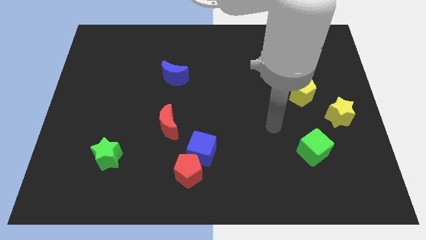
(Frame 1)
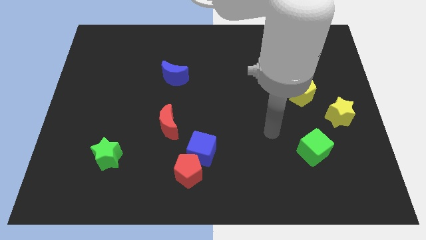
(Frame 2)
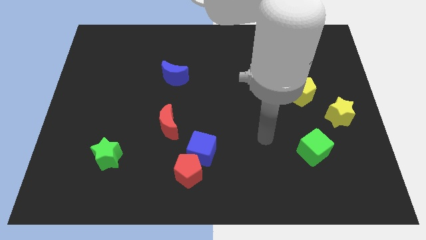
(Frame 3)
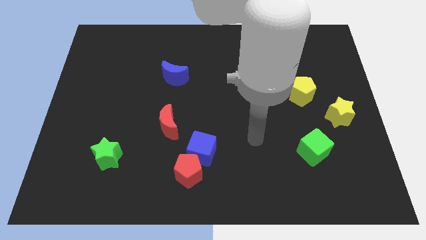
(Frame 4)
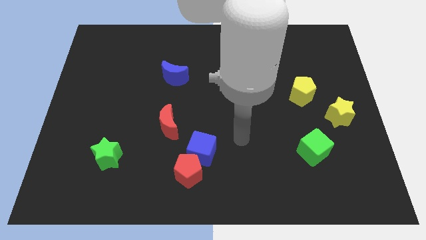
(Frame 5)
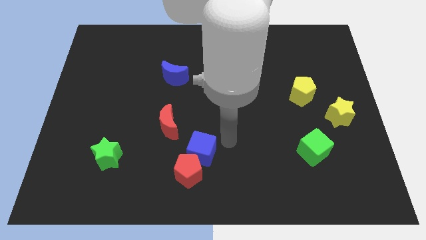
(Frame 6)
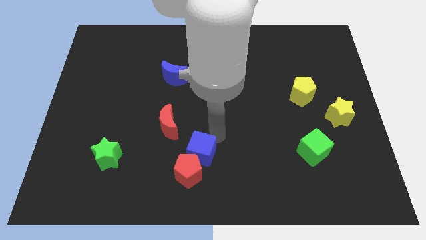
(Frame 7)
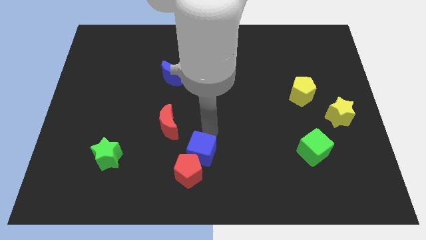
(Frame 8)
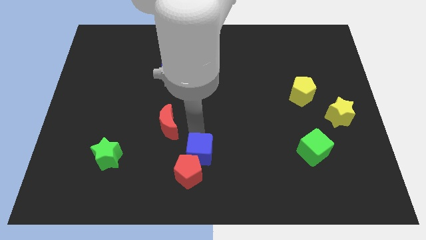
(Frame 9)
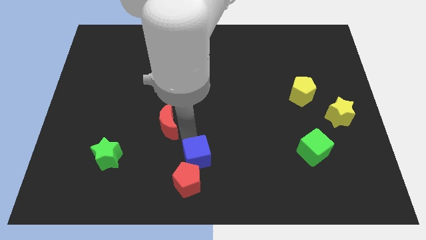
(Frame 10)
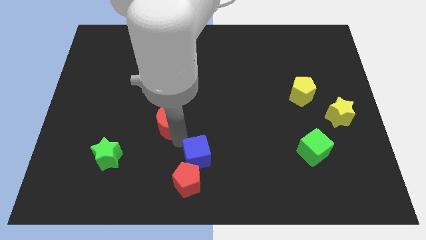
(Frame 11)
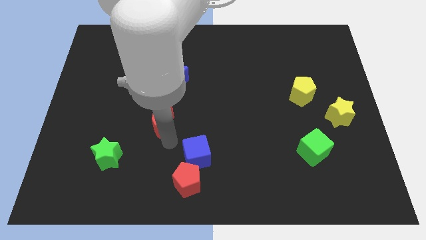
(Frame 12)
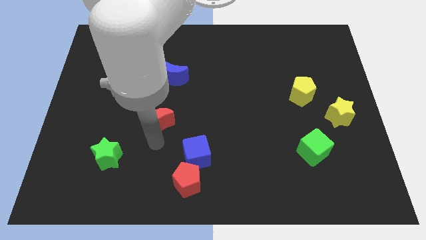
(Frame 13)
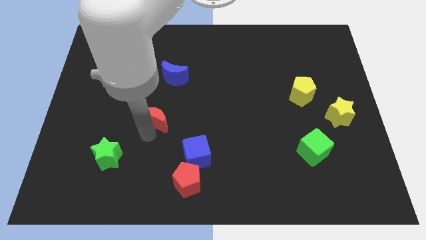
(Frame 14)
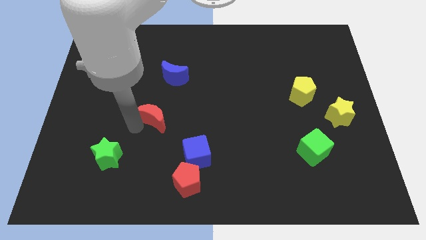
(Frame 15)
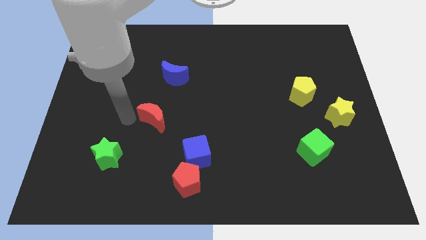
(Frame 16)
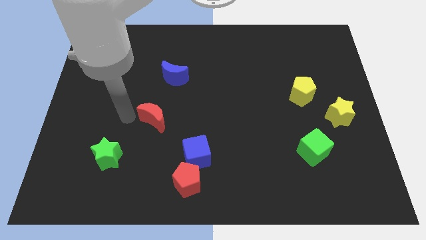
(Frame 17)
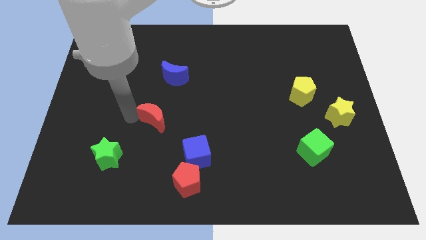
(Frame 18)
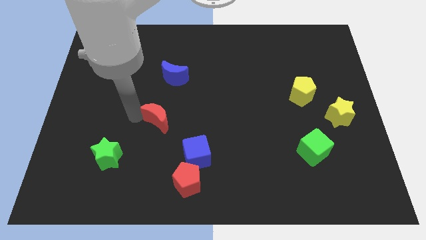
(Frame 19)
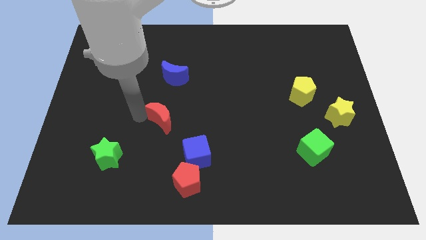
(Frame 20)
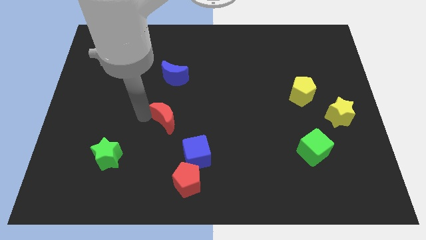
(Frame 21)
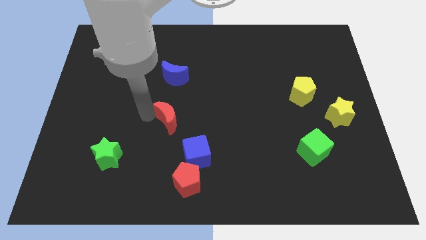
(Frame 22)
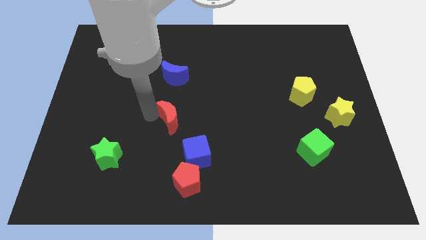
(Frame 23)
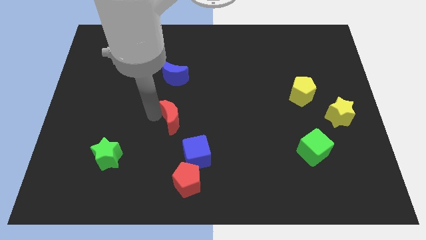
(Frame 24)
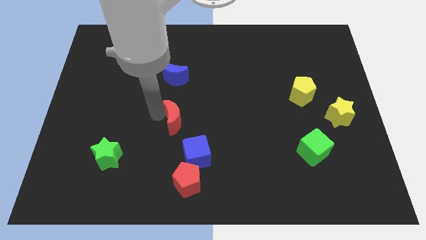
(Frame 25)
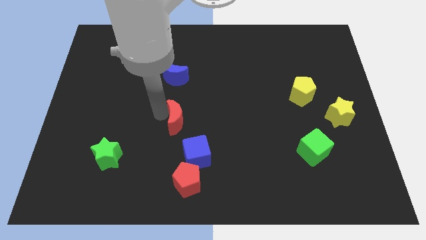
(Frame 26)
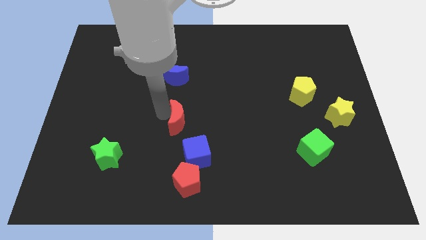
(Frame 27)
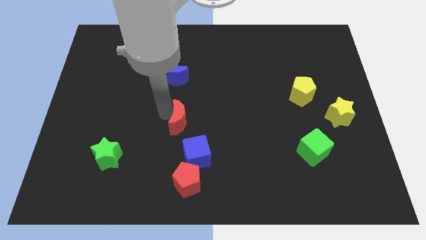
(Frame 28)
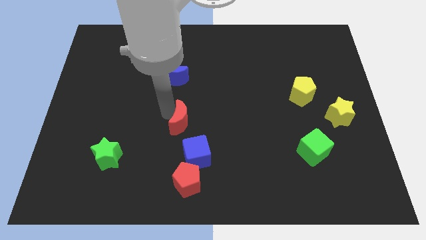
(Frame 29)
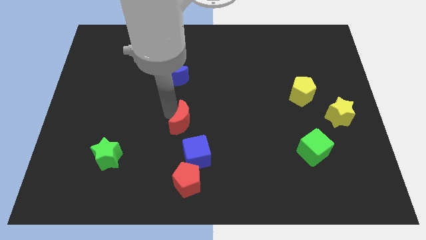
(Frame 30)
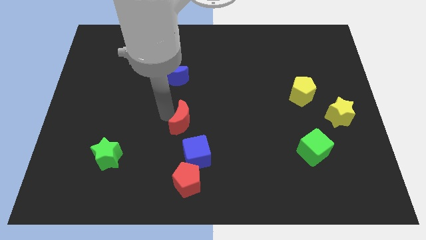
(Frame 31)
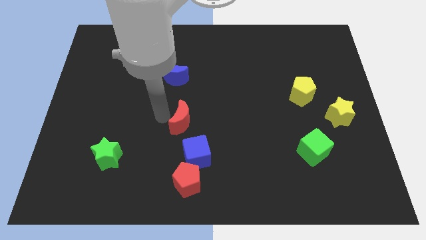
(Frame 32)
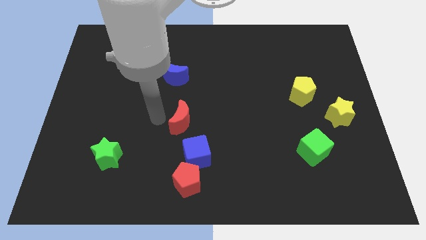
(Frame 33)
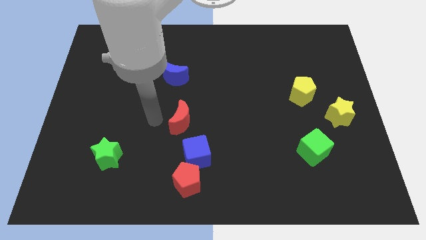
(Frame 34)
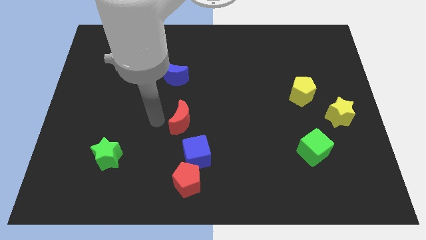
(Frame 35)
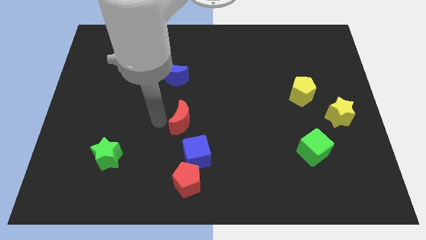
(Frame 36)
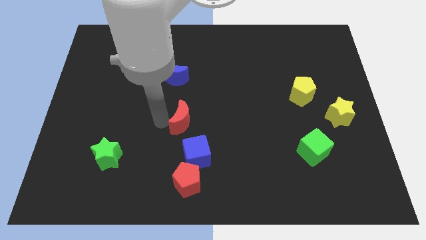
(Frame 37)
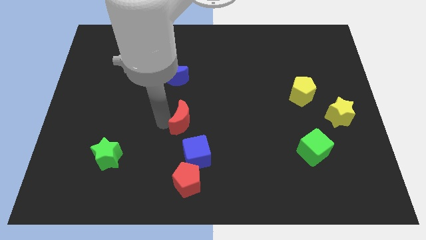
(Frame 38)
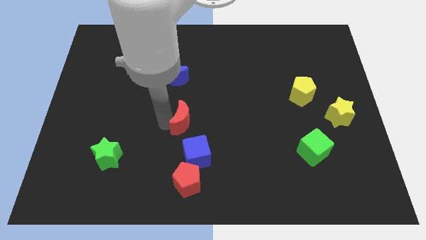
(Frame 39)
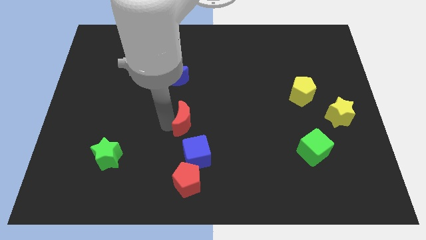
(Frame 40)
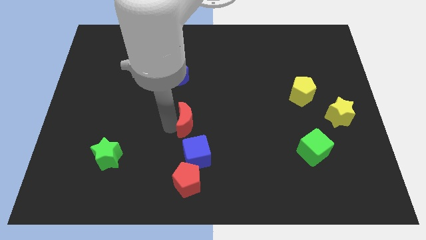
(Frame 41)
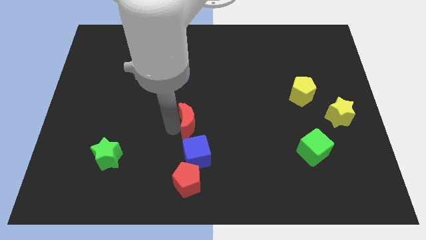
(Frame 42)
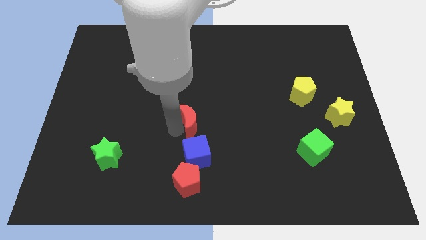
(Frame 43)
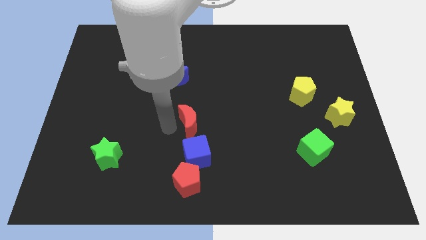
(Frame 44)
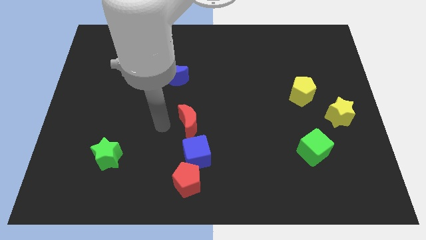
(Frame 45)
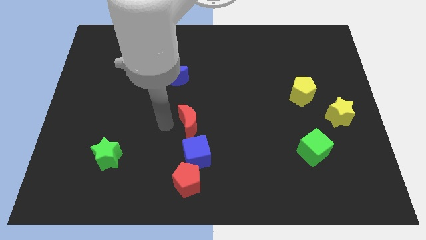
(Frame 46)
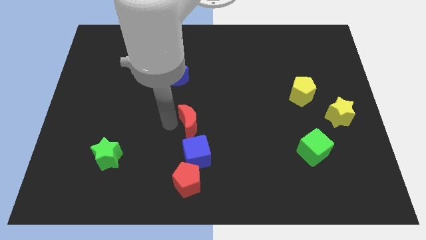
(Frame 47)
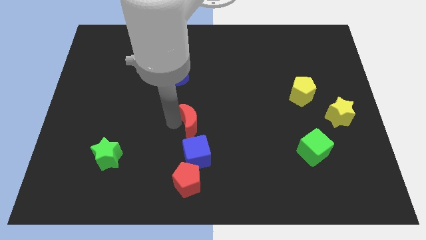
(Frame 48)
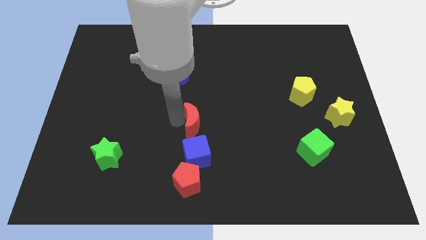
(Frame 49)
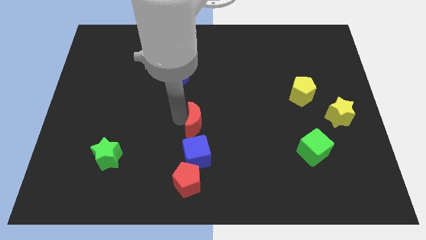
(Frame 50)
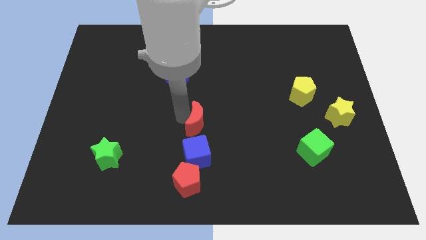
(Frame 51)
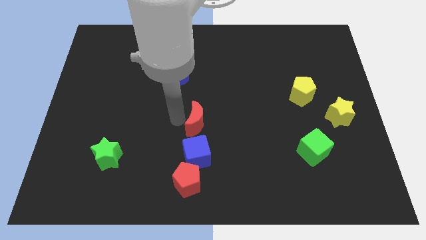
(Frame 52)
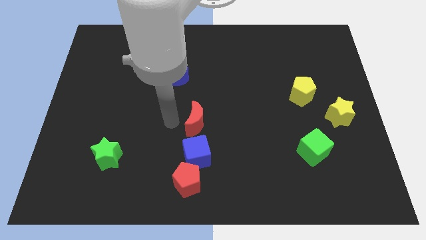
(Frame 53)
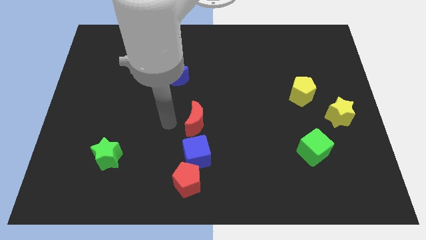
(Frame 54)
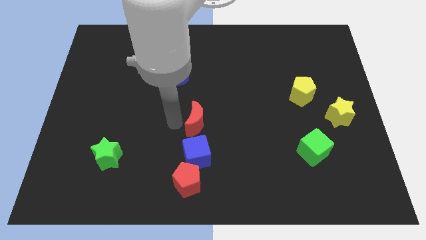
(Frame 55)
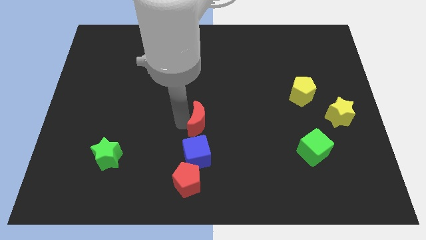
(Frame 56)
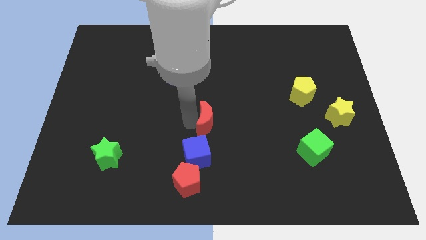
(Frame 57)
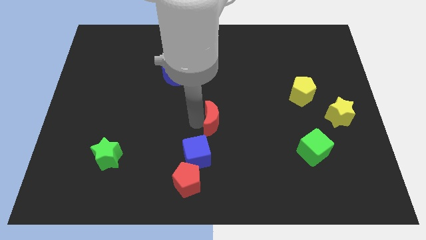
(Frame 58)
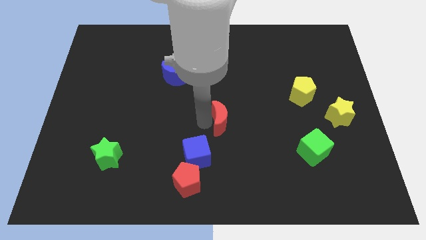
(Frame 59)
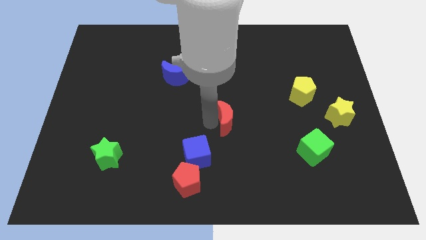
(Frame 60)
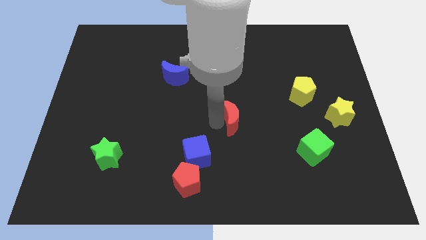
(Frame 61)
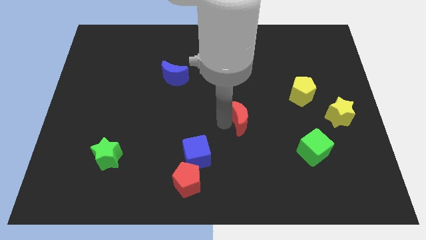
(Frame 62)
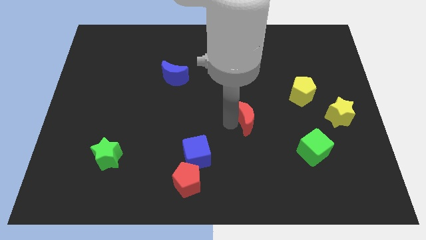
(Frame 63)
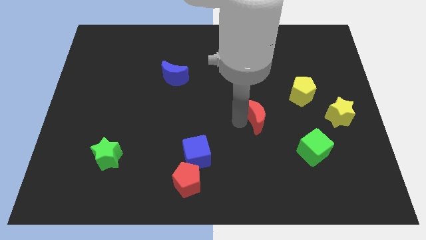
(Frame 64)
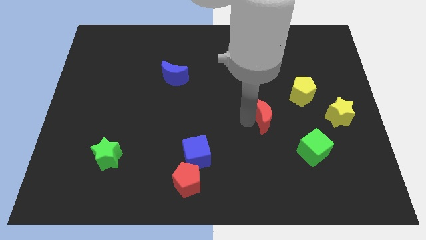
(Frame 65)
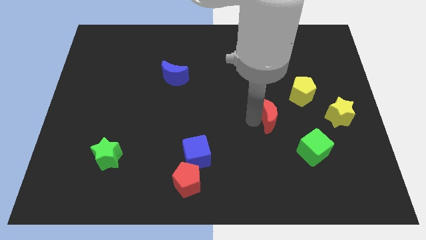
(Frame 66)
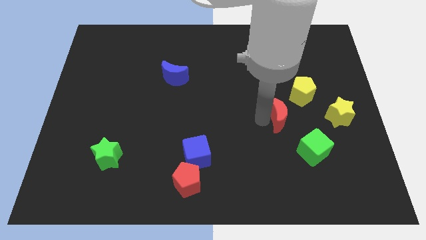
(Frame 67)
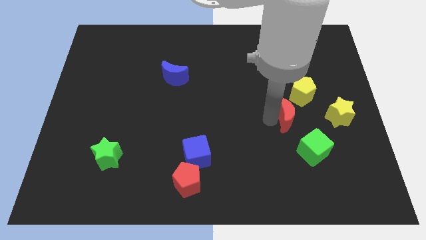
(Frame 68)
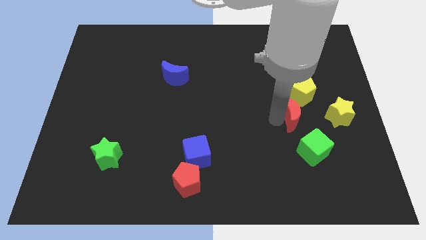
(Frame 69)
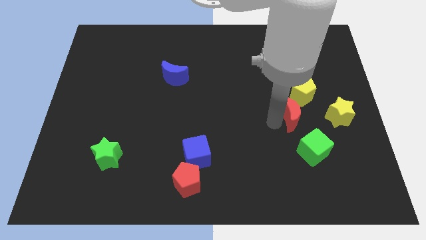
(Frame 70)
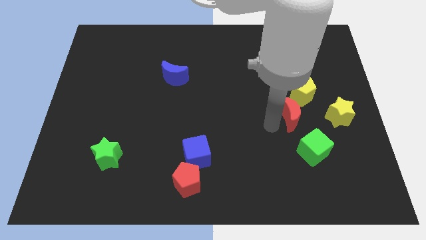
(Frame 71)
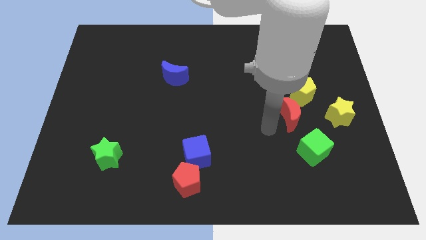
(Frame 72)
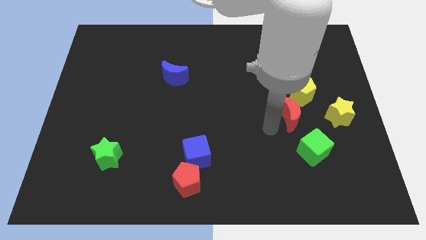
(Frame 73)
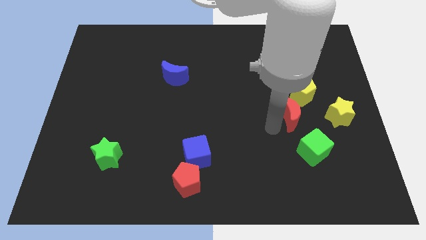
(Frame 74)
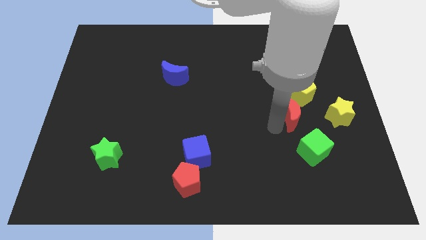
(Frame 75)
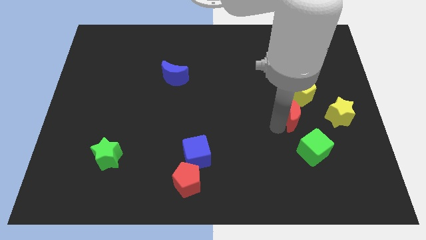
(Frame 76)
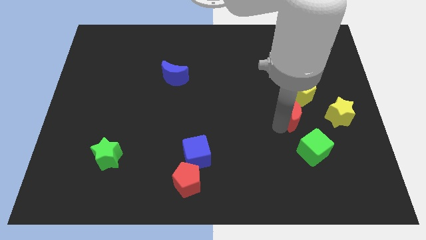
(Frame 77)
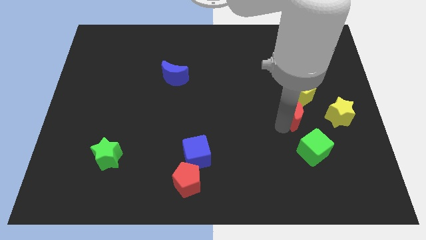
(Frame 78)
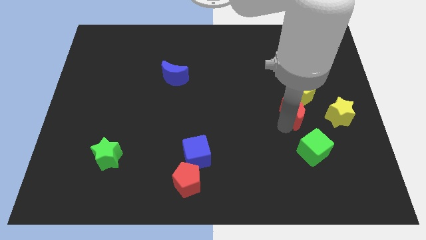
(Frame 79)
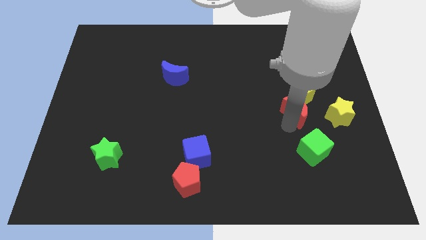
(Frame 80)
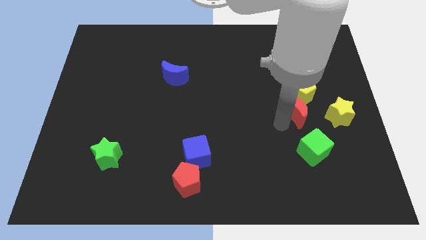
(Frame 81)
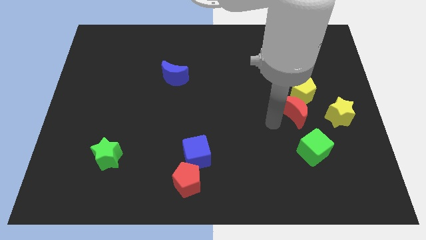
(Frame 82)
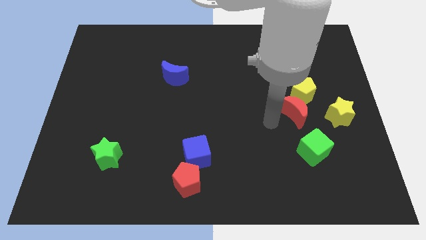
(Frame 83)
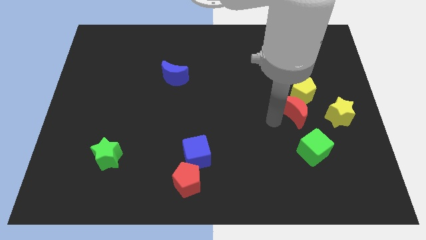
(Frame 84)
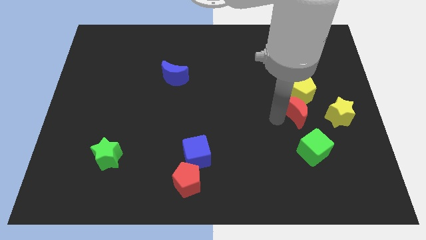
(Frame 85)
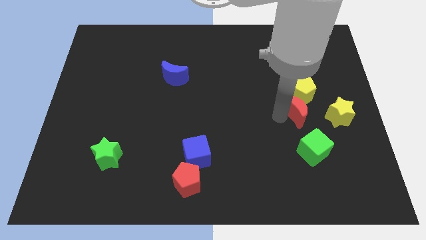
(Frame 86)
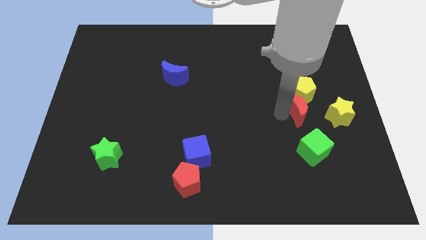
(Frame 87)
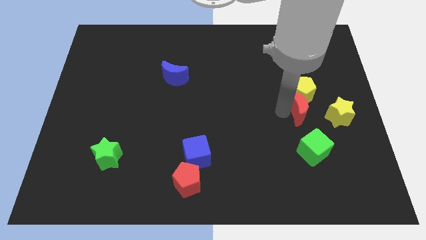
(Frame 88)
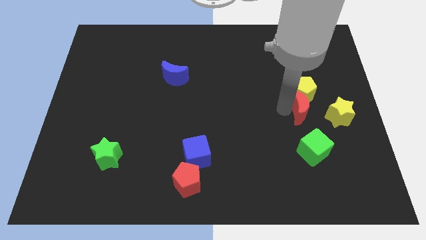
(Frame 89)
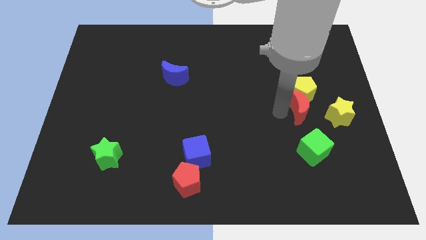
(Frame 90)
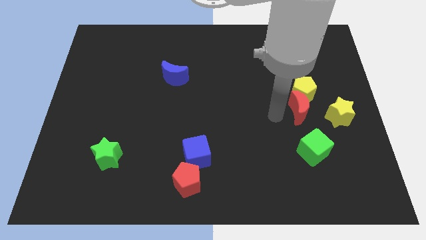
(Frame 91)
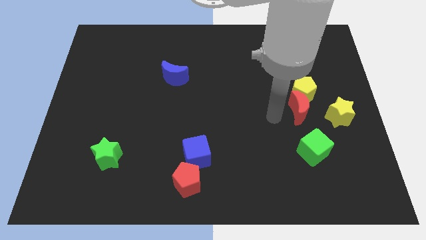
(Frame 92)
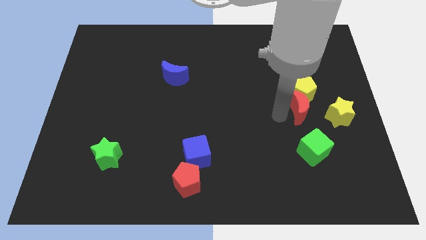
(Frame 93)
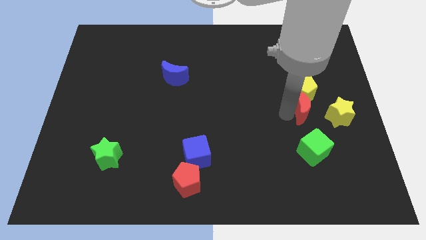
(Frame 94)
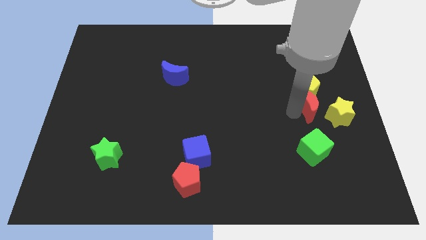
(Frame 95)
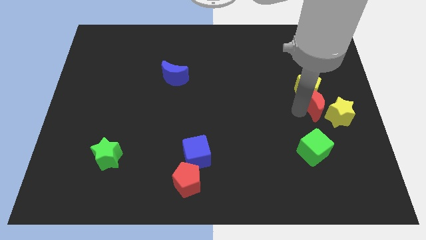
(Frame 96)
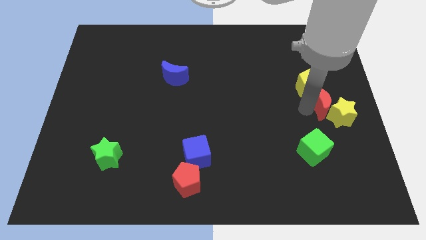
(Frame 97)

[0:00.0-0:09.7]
put the red moon to the right side
